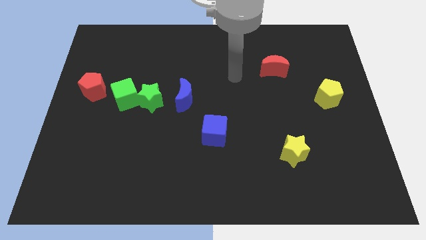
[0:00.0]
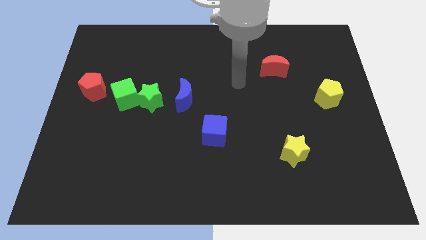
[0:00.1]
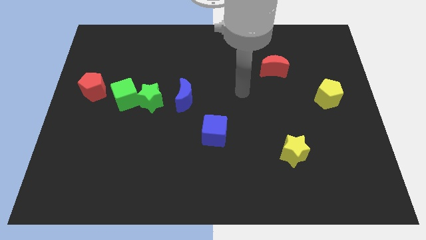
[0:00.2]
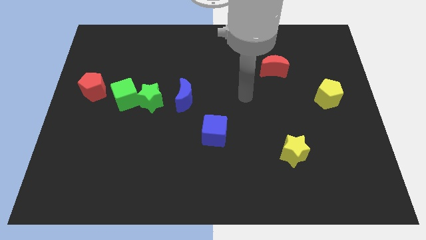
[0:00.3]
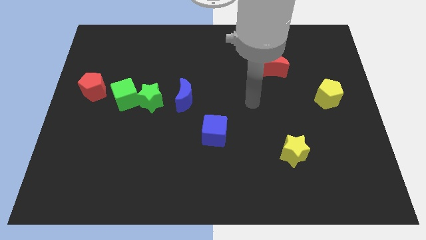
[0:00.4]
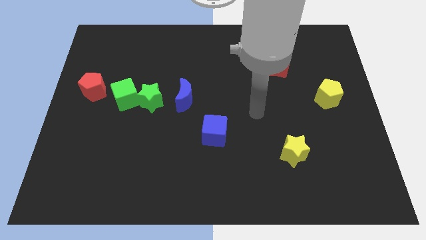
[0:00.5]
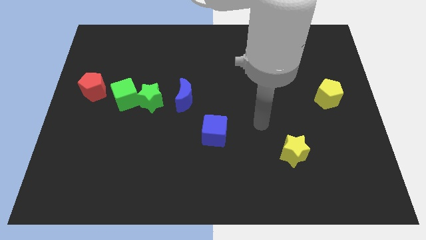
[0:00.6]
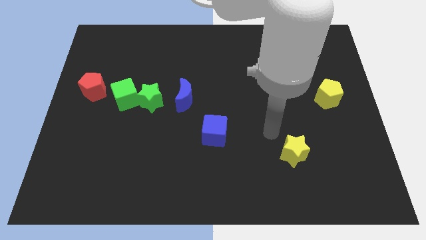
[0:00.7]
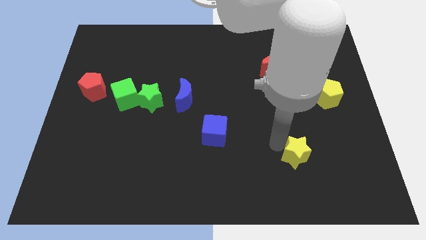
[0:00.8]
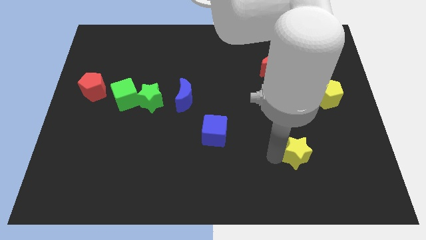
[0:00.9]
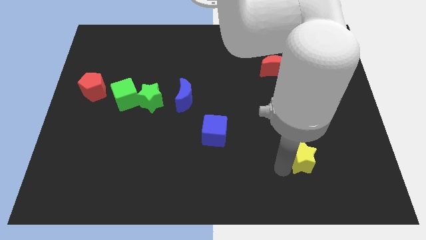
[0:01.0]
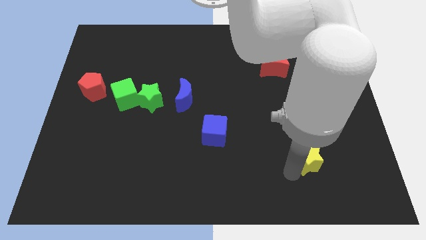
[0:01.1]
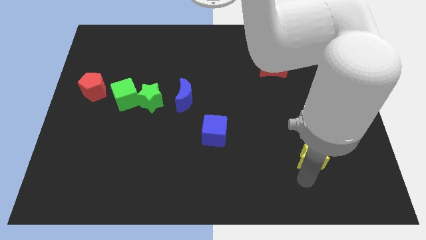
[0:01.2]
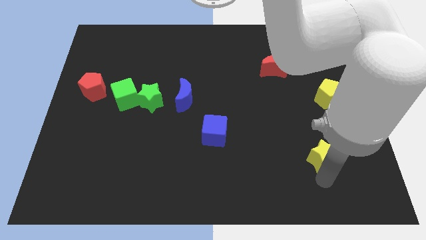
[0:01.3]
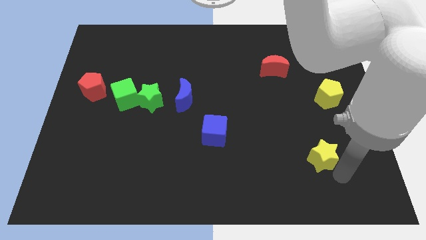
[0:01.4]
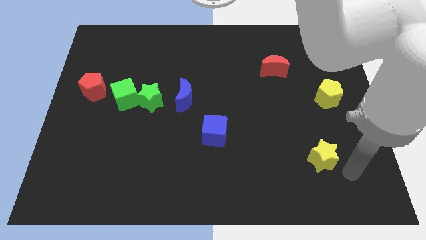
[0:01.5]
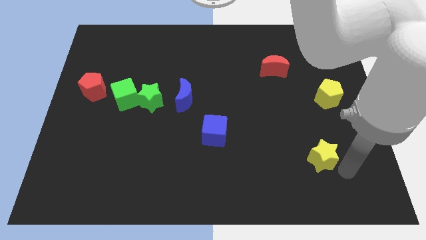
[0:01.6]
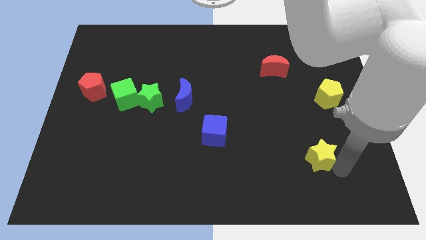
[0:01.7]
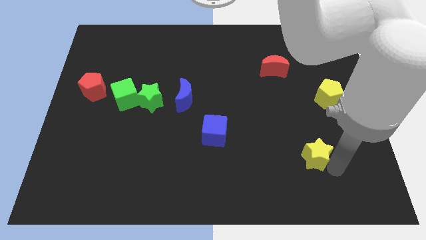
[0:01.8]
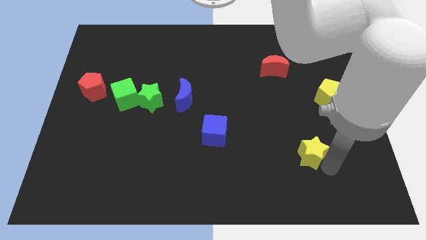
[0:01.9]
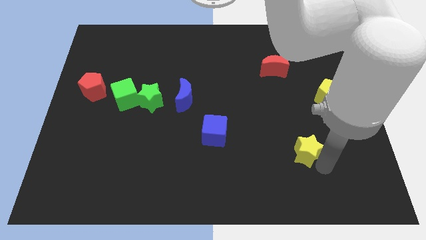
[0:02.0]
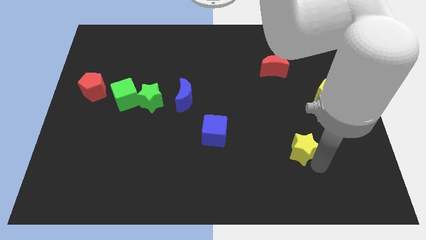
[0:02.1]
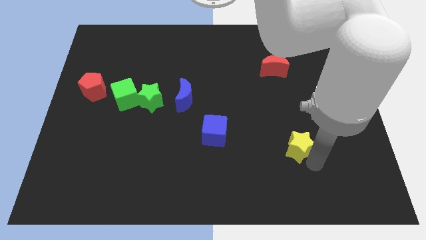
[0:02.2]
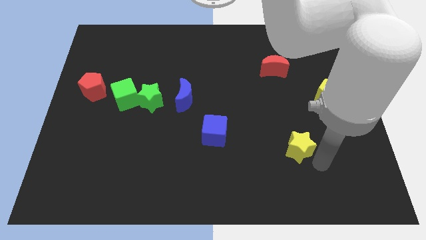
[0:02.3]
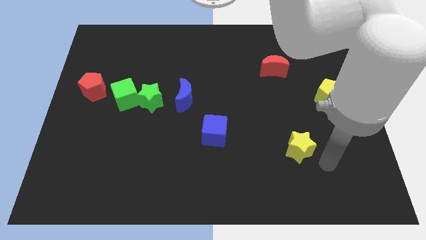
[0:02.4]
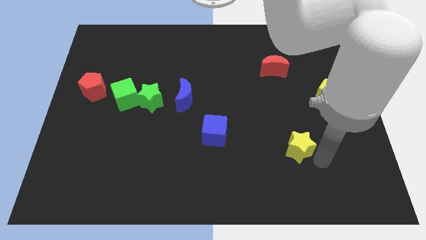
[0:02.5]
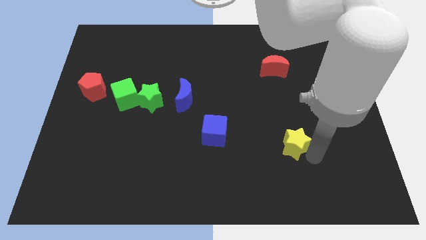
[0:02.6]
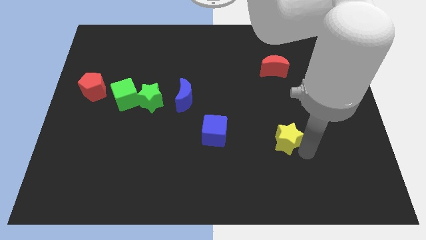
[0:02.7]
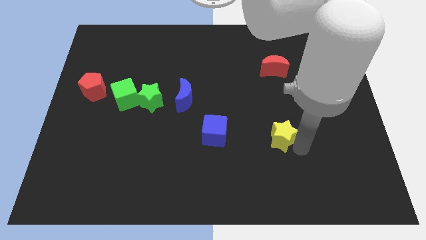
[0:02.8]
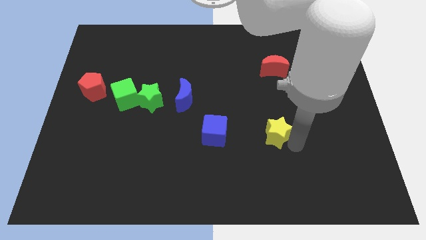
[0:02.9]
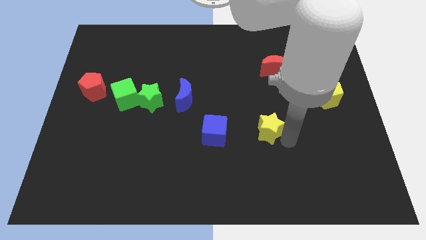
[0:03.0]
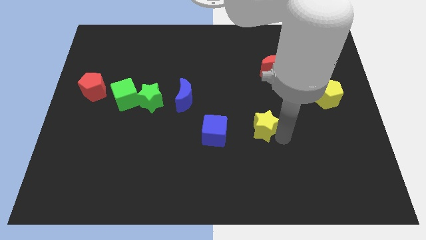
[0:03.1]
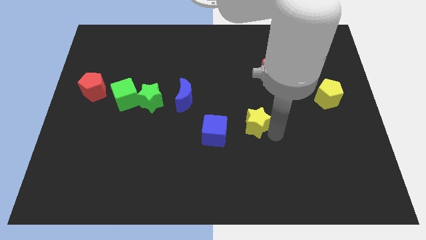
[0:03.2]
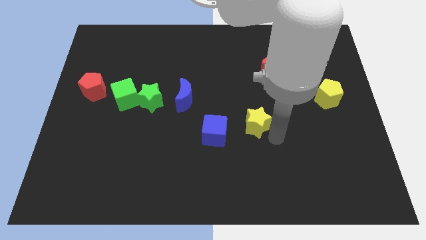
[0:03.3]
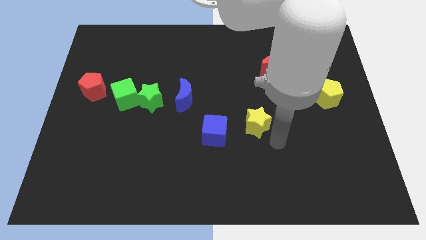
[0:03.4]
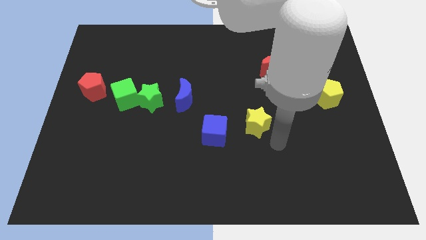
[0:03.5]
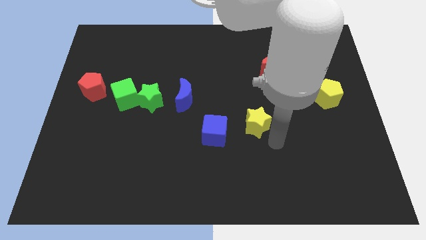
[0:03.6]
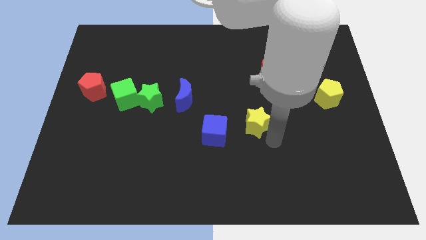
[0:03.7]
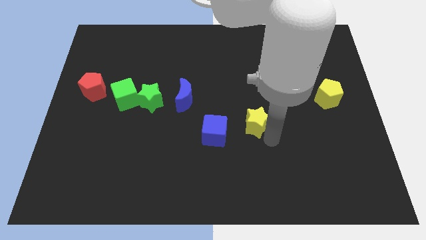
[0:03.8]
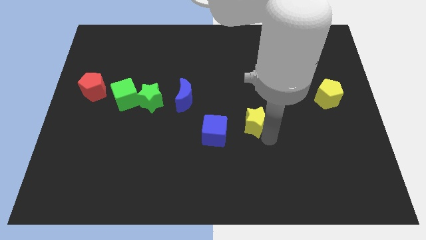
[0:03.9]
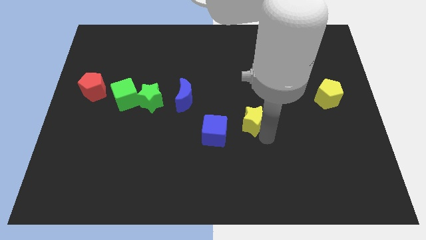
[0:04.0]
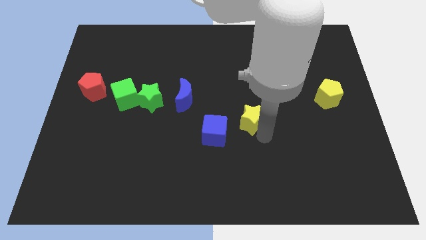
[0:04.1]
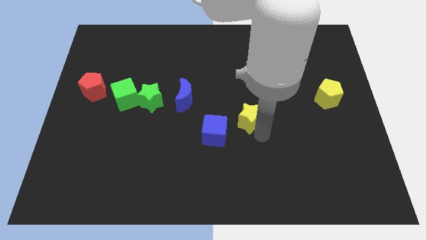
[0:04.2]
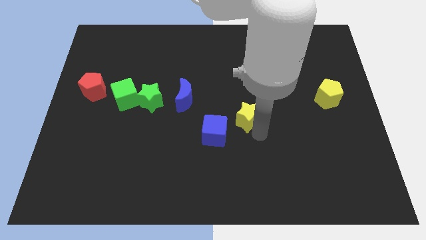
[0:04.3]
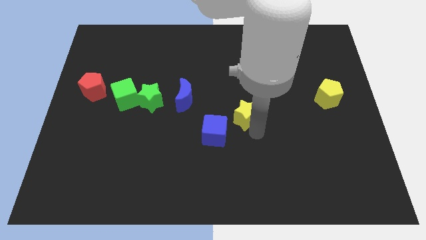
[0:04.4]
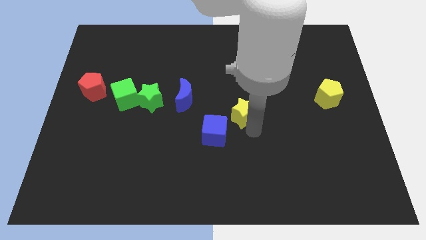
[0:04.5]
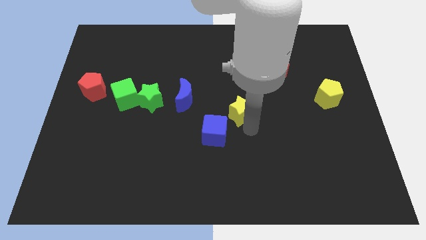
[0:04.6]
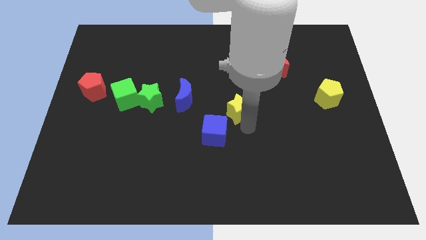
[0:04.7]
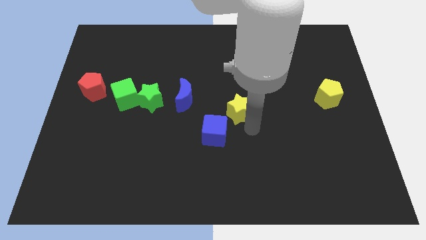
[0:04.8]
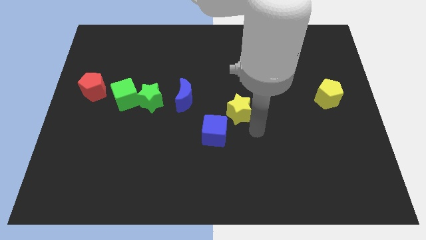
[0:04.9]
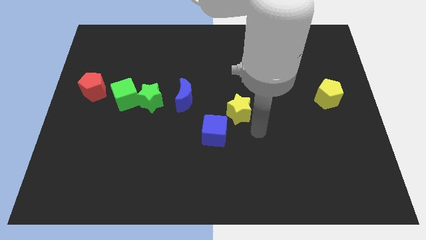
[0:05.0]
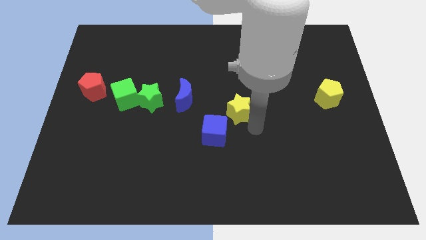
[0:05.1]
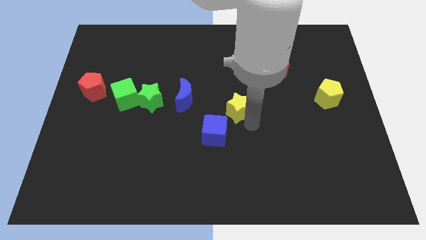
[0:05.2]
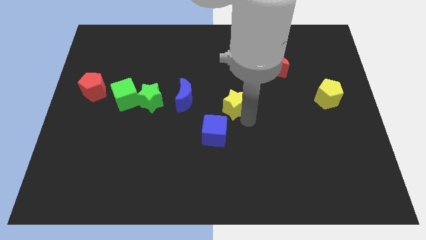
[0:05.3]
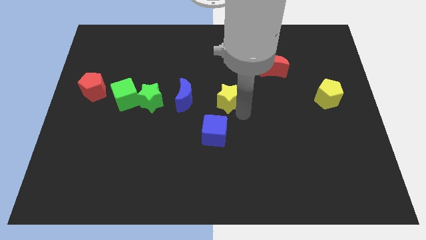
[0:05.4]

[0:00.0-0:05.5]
slide the yellow star up and then left

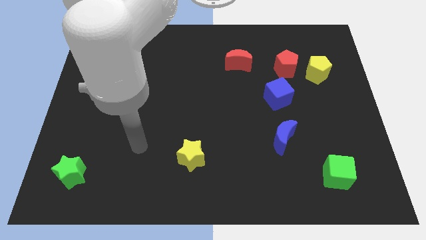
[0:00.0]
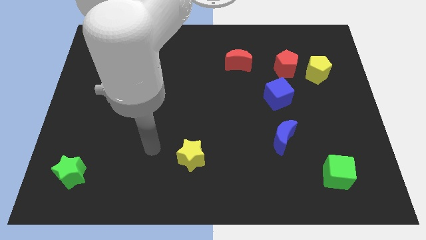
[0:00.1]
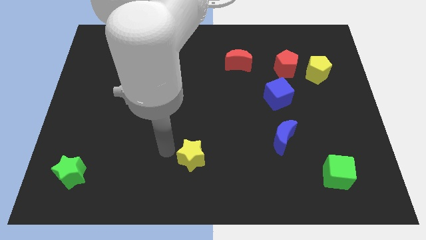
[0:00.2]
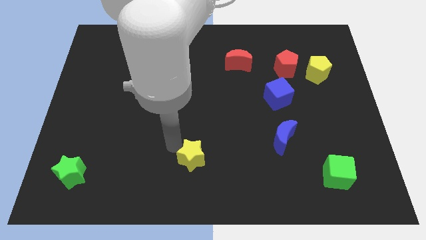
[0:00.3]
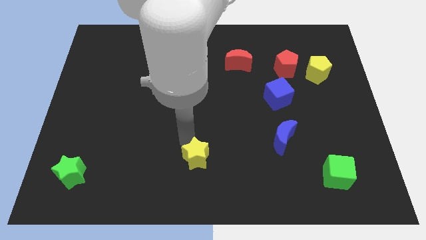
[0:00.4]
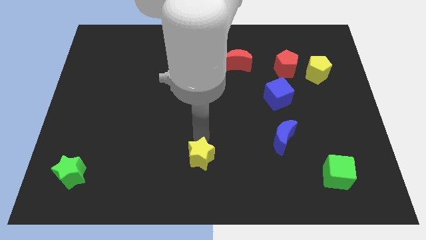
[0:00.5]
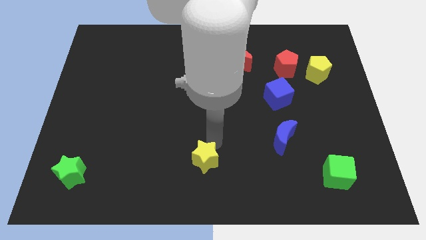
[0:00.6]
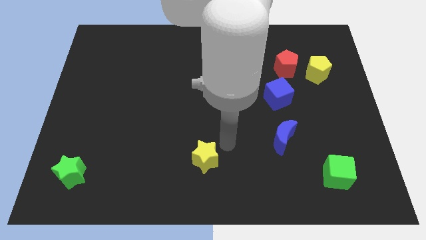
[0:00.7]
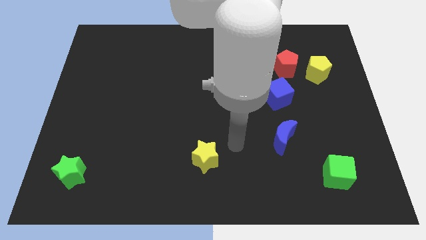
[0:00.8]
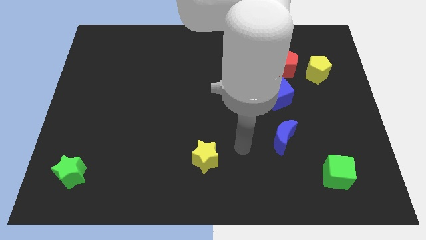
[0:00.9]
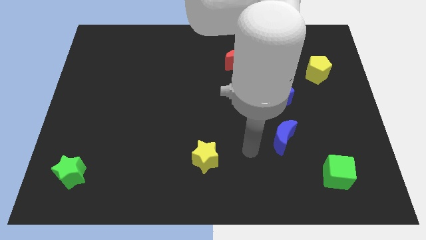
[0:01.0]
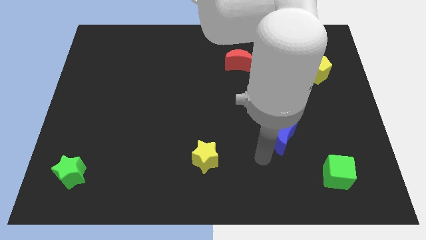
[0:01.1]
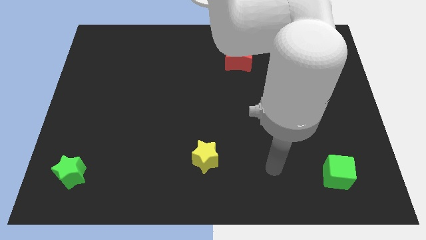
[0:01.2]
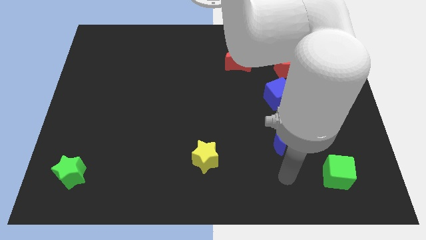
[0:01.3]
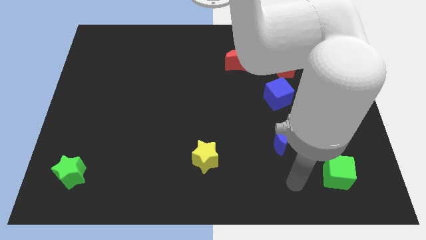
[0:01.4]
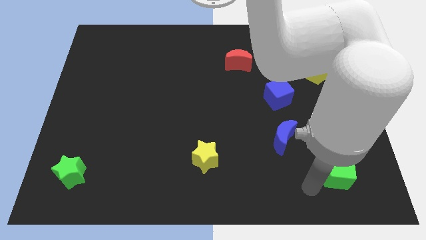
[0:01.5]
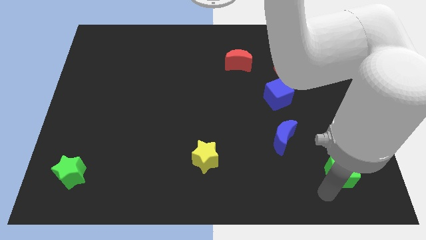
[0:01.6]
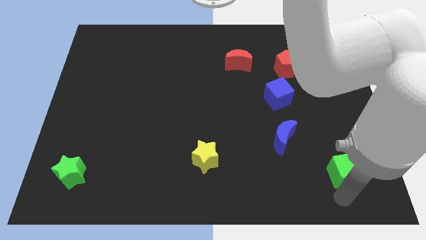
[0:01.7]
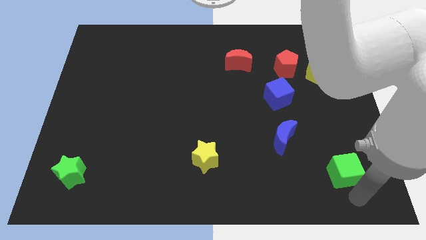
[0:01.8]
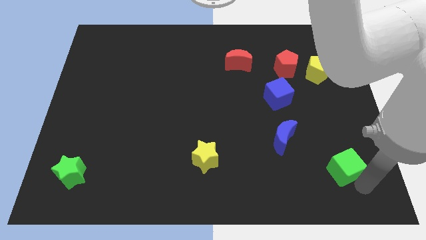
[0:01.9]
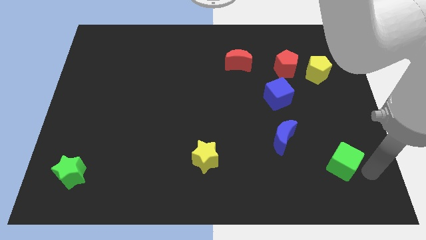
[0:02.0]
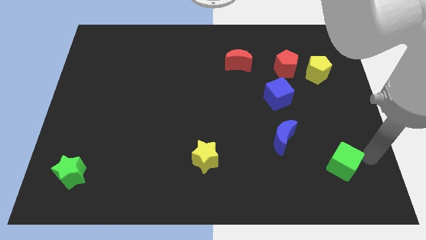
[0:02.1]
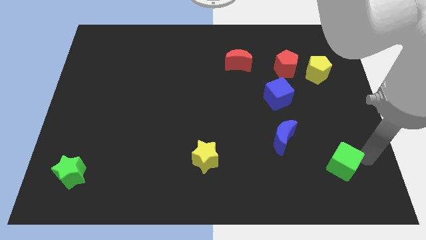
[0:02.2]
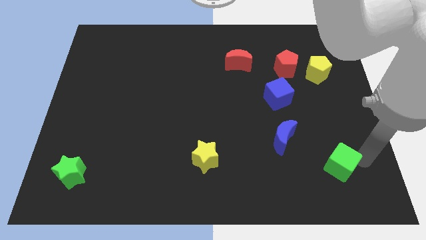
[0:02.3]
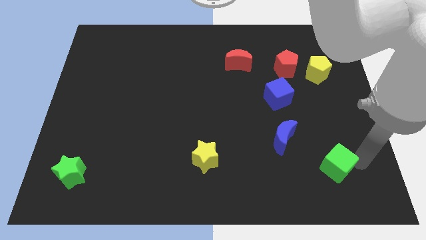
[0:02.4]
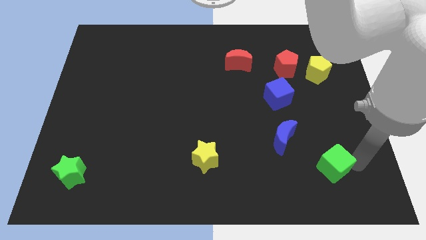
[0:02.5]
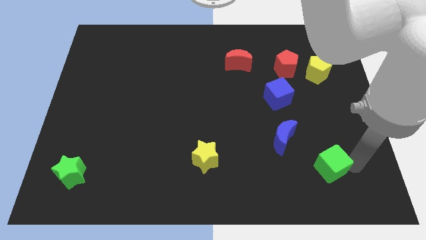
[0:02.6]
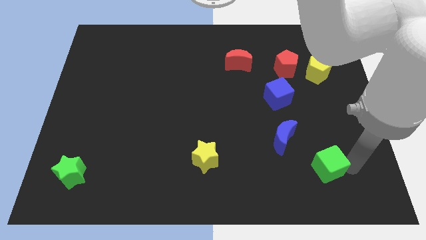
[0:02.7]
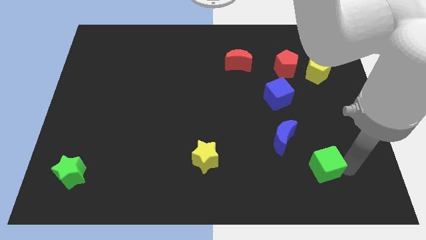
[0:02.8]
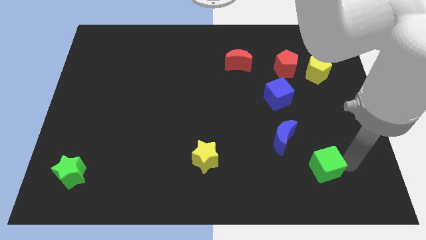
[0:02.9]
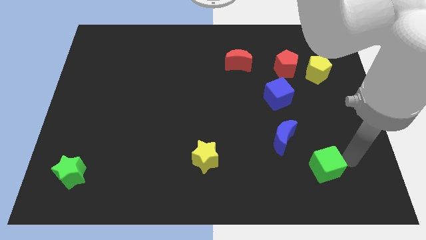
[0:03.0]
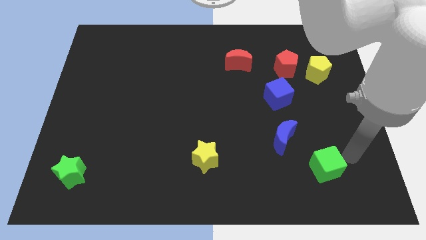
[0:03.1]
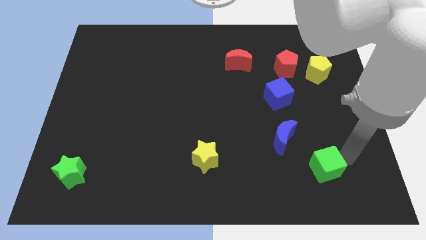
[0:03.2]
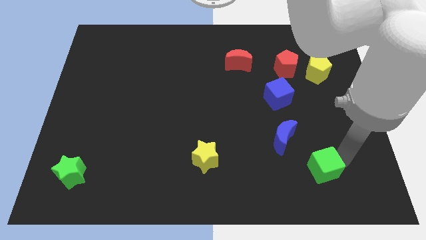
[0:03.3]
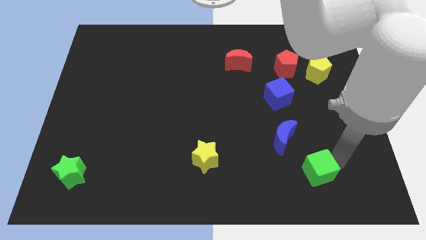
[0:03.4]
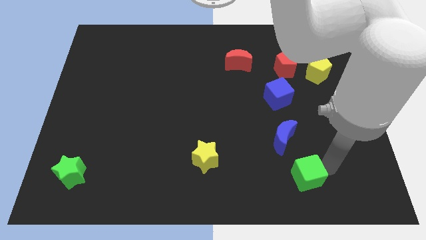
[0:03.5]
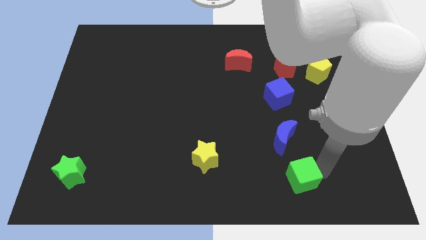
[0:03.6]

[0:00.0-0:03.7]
slide the green cube to the left slightly
